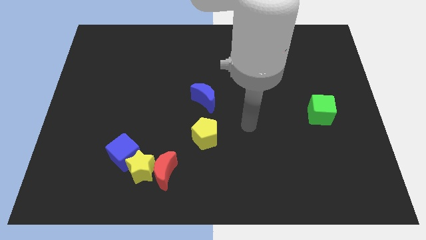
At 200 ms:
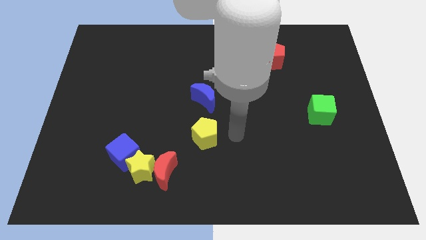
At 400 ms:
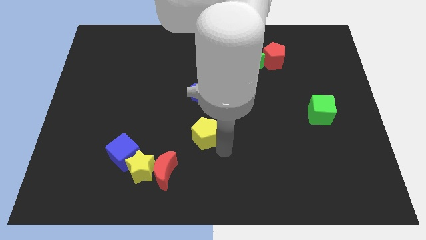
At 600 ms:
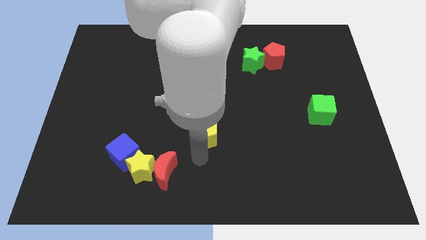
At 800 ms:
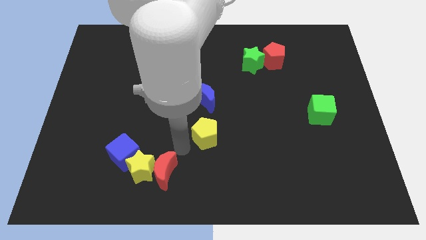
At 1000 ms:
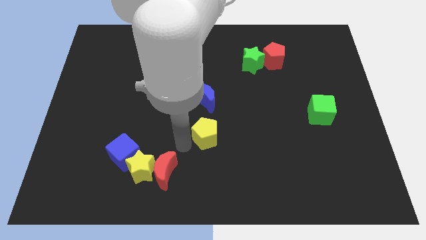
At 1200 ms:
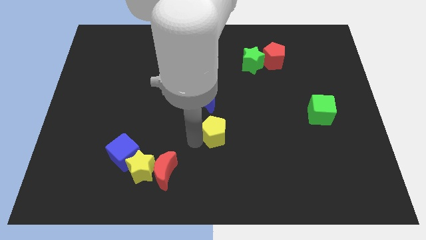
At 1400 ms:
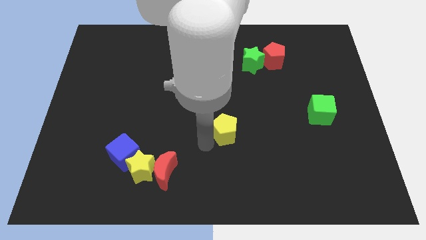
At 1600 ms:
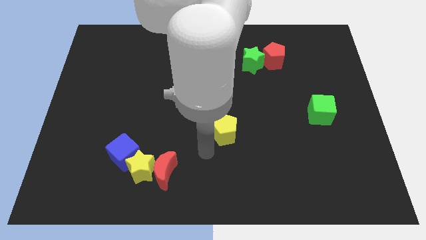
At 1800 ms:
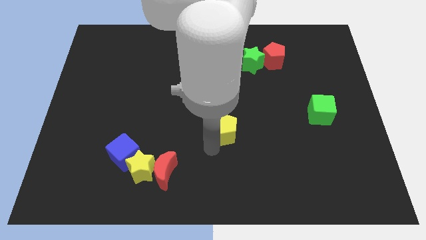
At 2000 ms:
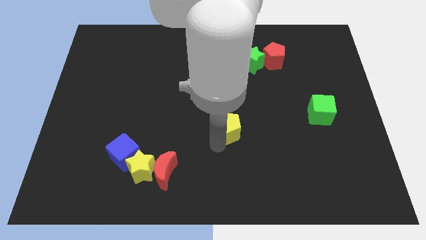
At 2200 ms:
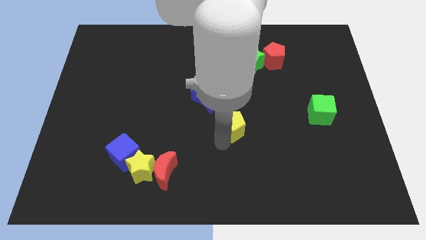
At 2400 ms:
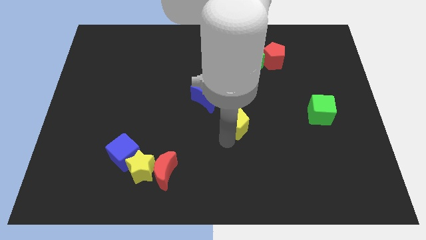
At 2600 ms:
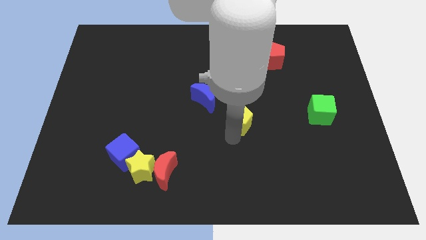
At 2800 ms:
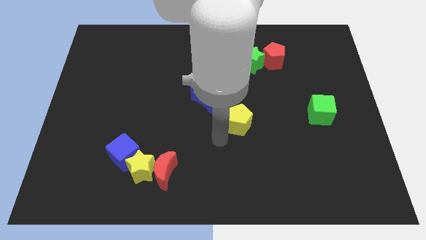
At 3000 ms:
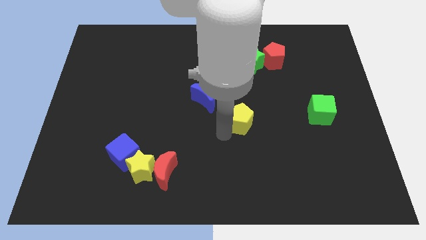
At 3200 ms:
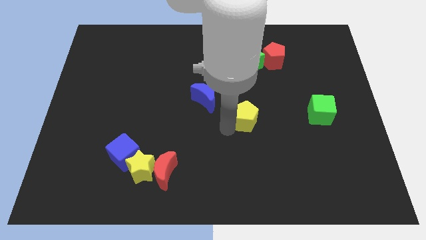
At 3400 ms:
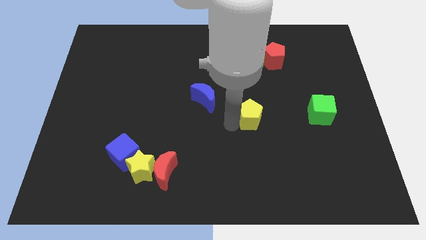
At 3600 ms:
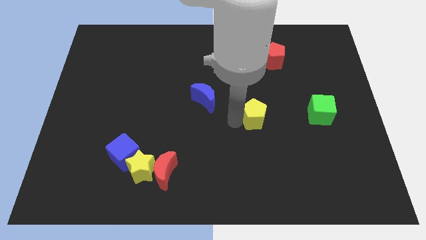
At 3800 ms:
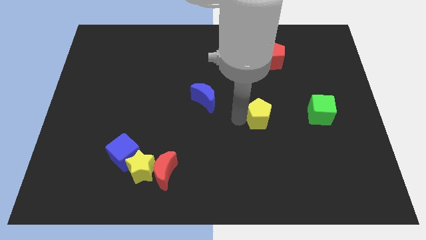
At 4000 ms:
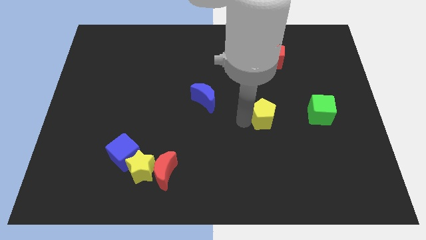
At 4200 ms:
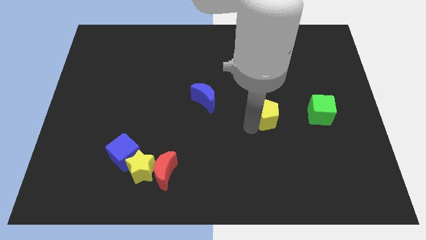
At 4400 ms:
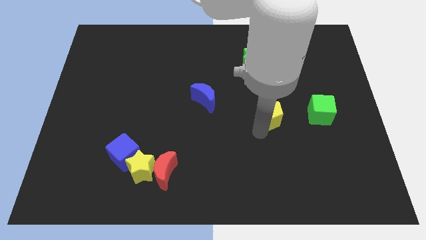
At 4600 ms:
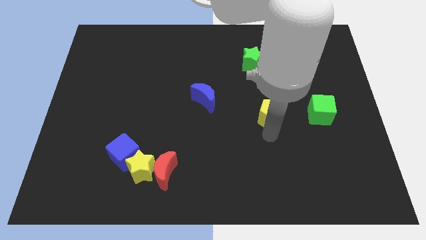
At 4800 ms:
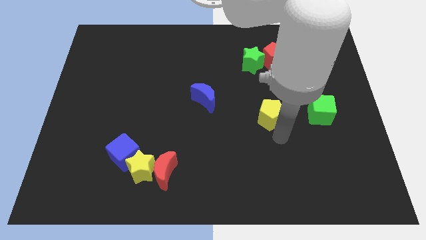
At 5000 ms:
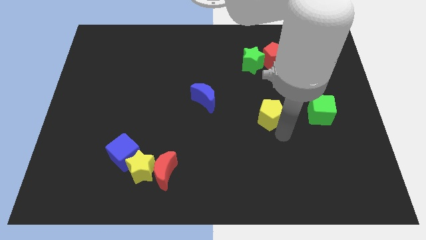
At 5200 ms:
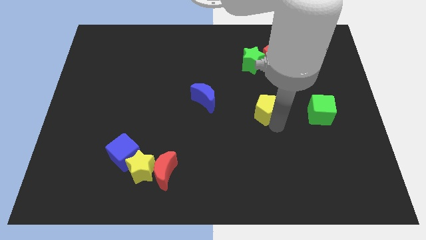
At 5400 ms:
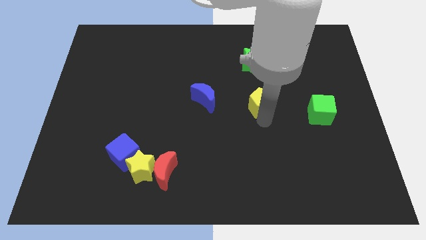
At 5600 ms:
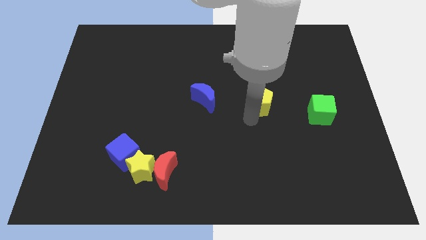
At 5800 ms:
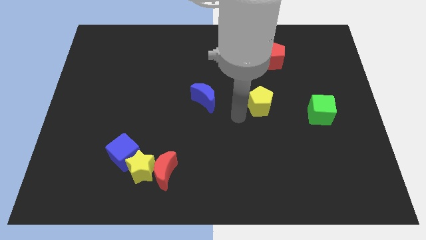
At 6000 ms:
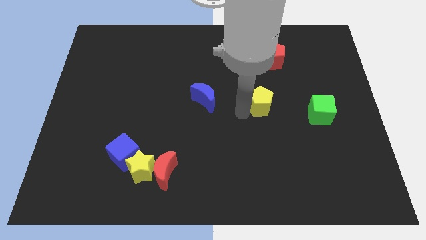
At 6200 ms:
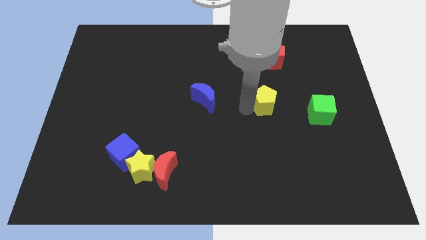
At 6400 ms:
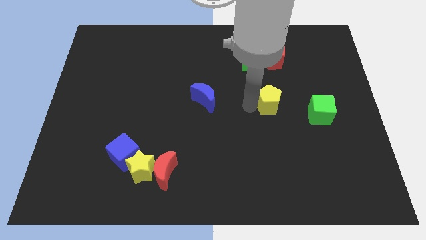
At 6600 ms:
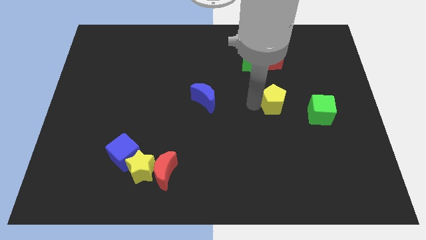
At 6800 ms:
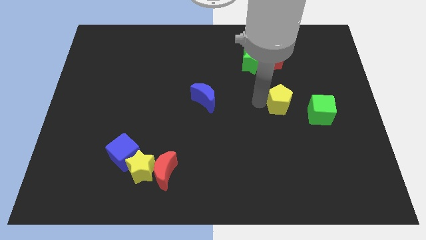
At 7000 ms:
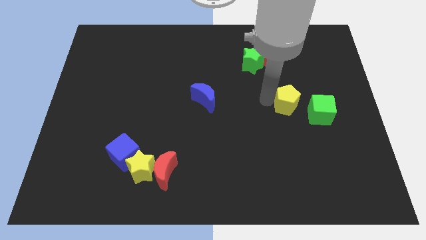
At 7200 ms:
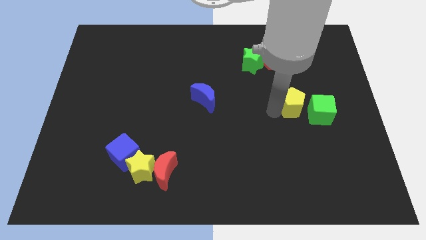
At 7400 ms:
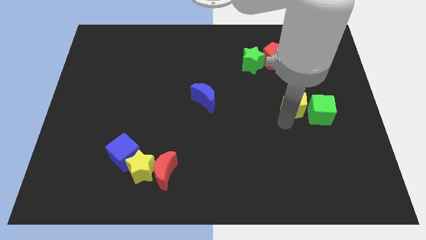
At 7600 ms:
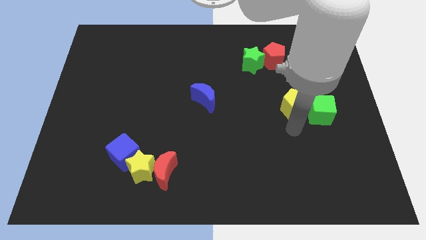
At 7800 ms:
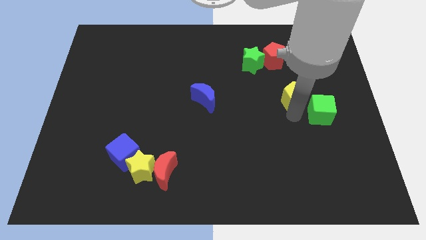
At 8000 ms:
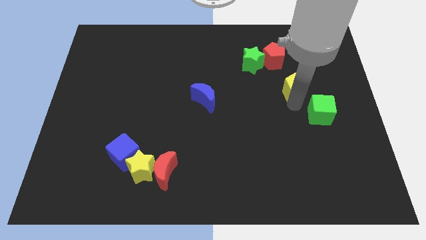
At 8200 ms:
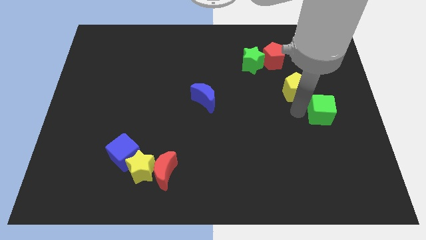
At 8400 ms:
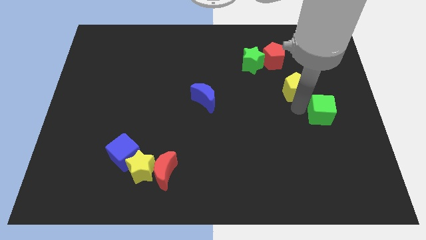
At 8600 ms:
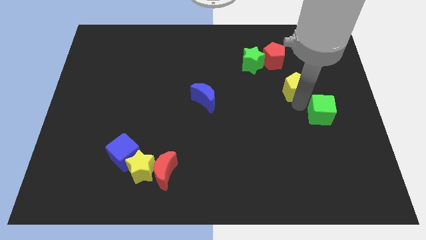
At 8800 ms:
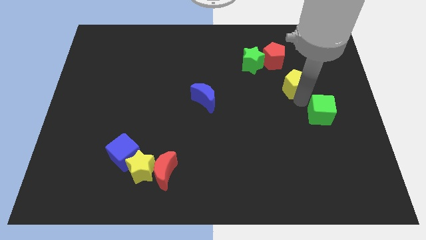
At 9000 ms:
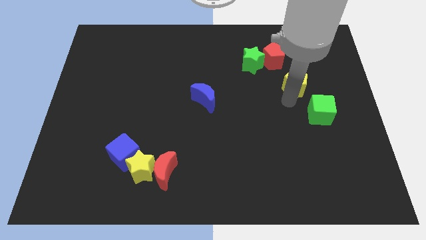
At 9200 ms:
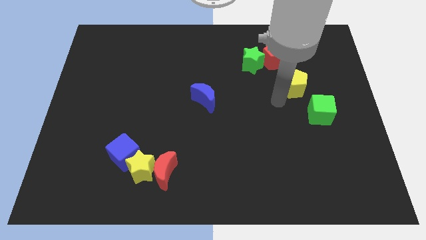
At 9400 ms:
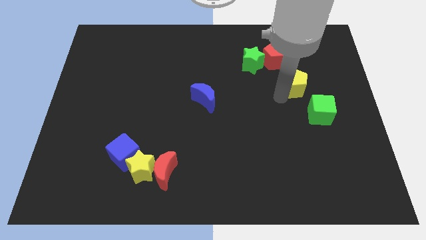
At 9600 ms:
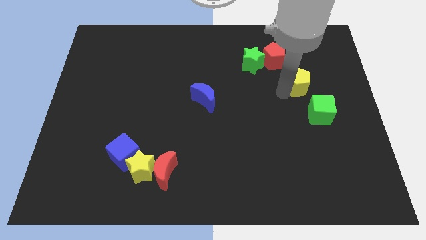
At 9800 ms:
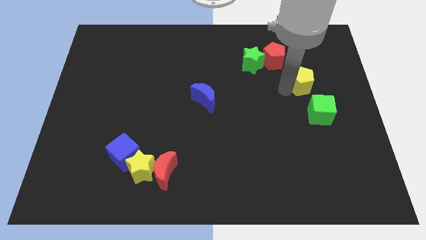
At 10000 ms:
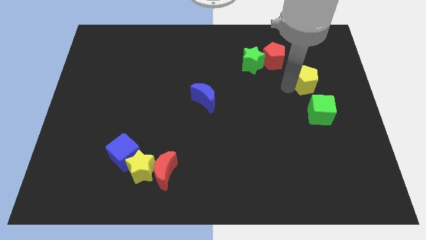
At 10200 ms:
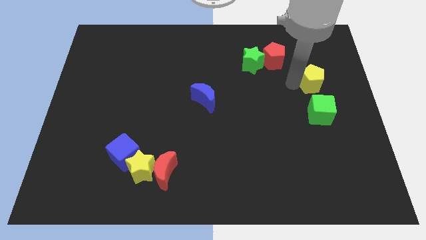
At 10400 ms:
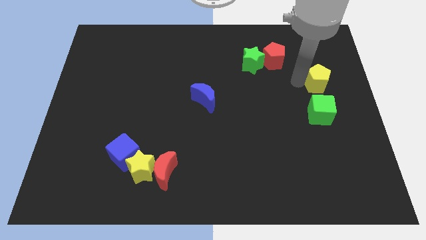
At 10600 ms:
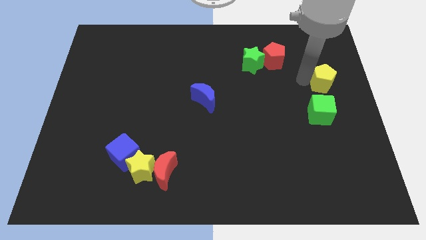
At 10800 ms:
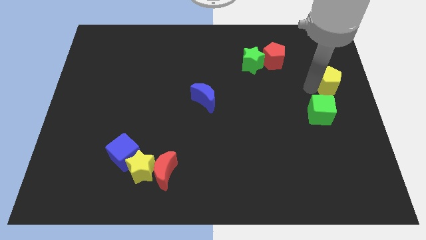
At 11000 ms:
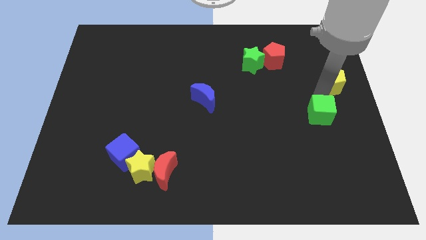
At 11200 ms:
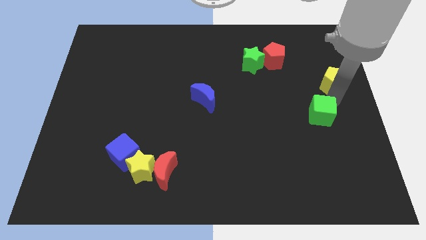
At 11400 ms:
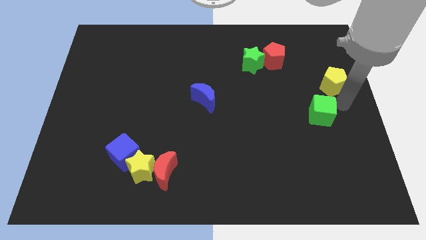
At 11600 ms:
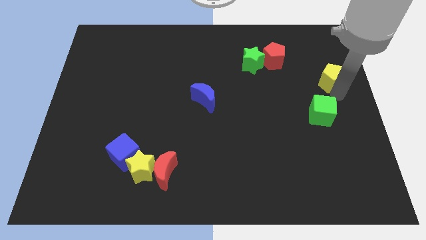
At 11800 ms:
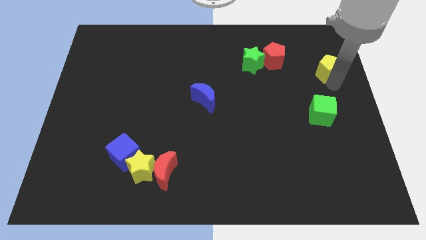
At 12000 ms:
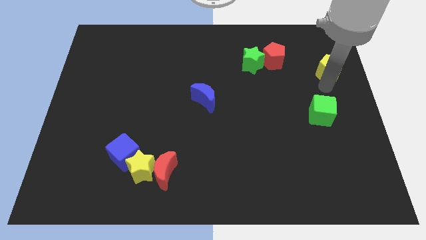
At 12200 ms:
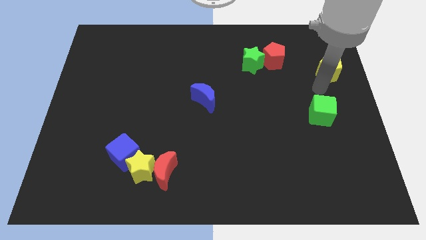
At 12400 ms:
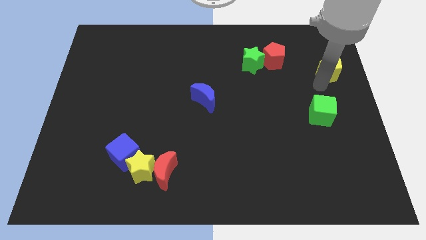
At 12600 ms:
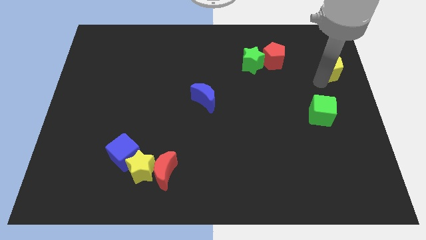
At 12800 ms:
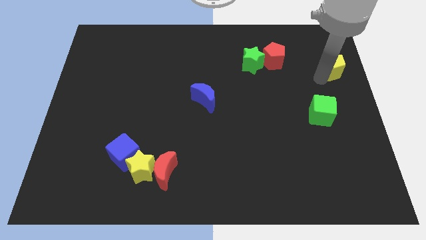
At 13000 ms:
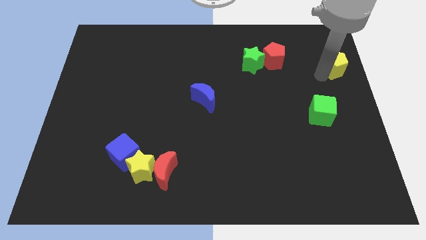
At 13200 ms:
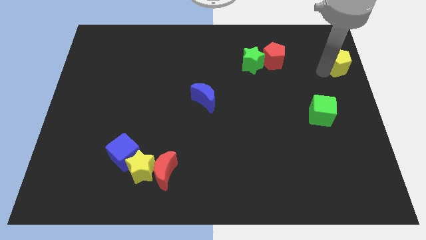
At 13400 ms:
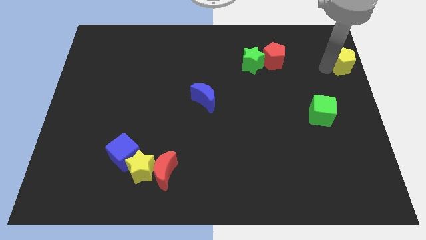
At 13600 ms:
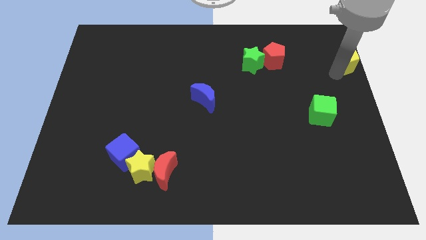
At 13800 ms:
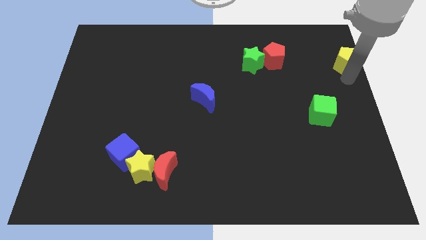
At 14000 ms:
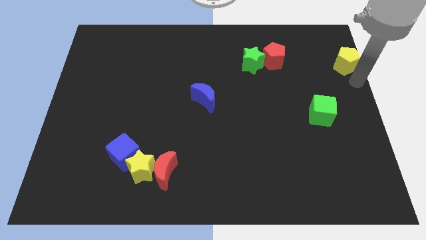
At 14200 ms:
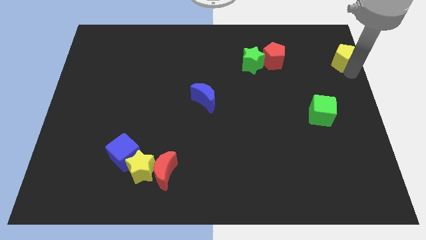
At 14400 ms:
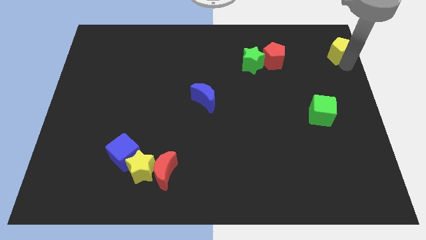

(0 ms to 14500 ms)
put the yellow pentagon to the top right corner
